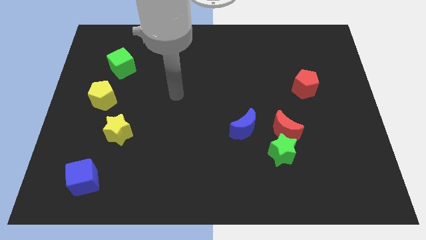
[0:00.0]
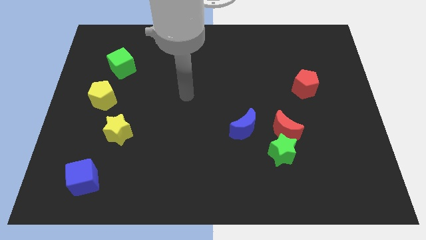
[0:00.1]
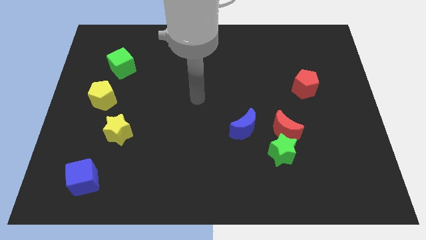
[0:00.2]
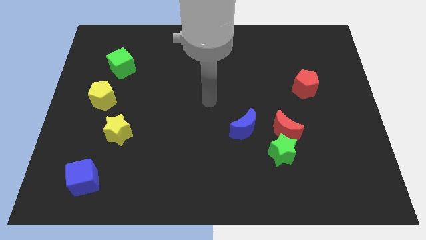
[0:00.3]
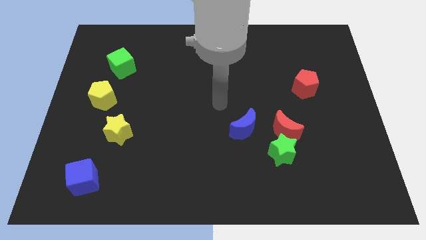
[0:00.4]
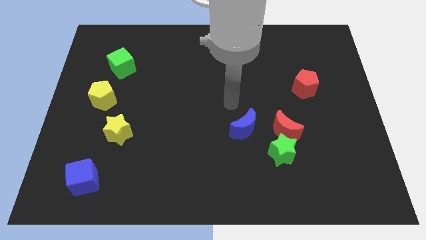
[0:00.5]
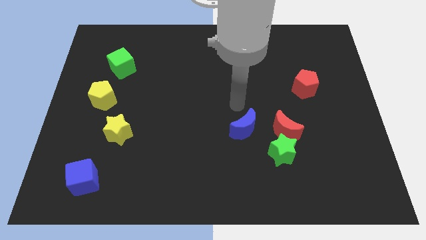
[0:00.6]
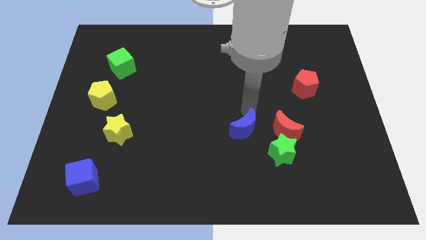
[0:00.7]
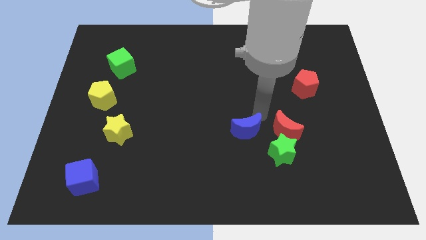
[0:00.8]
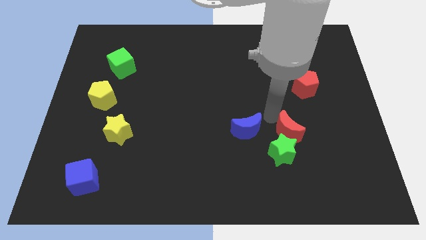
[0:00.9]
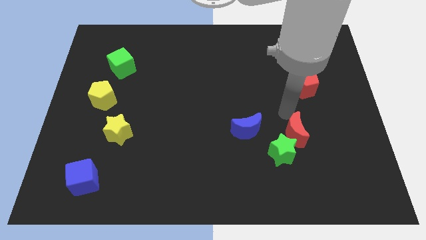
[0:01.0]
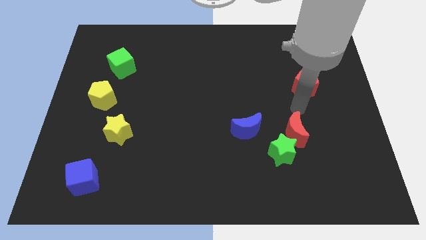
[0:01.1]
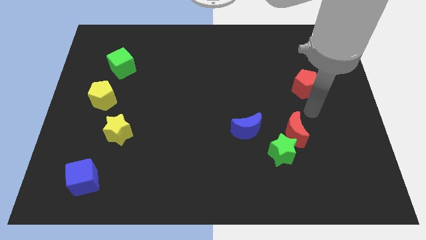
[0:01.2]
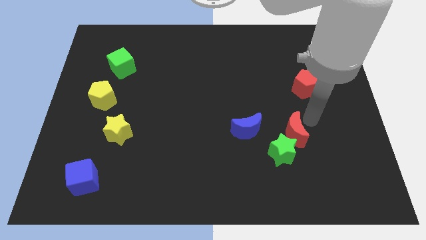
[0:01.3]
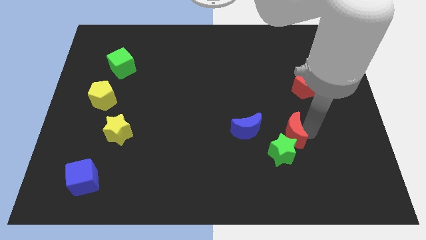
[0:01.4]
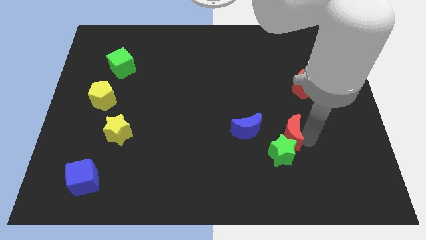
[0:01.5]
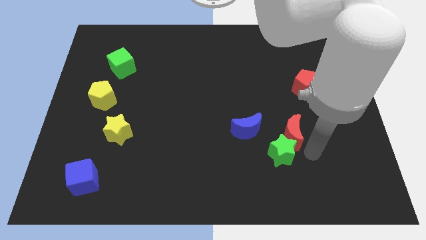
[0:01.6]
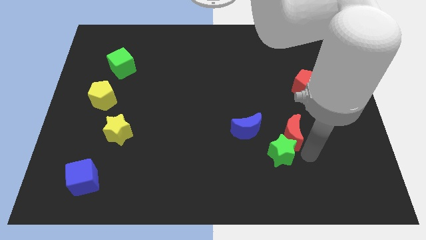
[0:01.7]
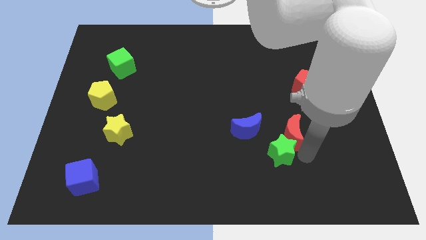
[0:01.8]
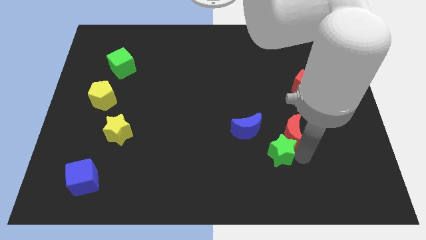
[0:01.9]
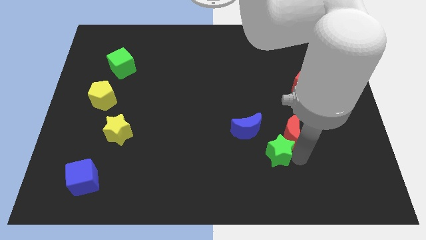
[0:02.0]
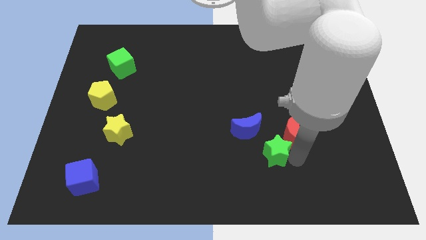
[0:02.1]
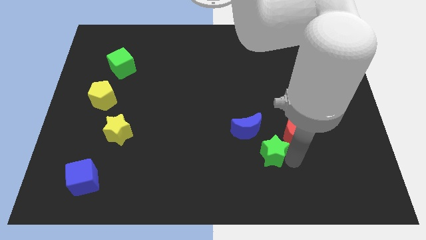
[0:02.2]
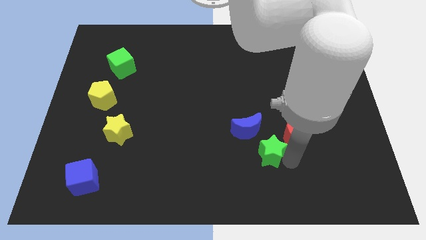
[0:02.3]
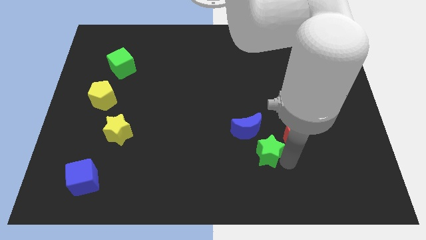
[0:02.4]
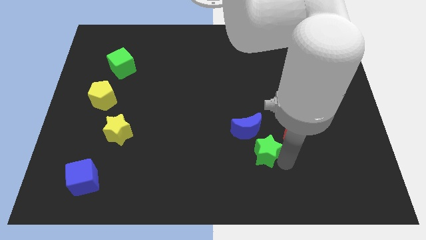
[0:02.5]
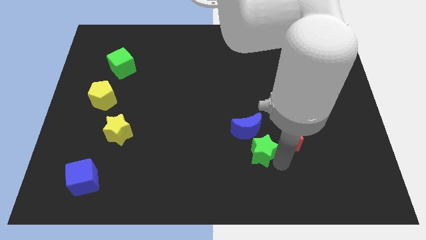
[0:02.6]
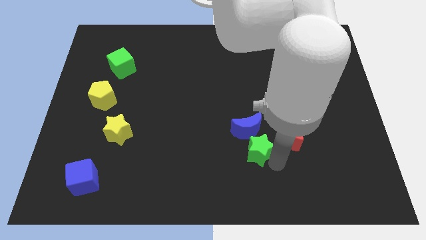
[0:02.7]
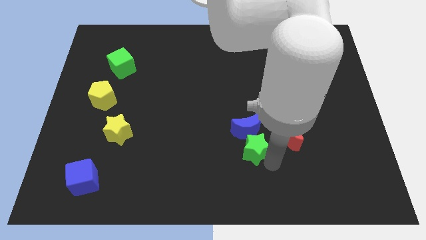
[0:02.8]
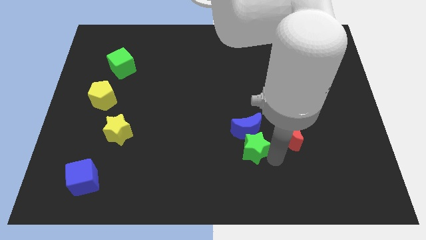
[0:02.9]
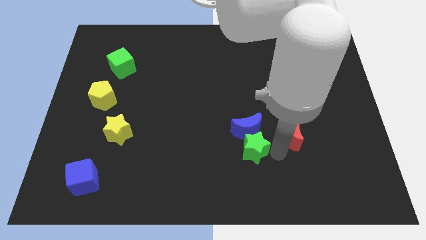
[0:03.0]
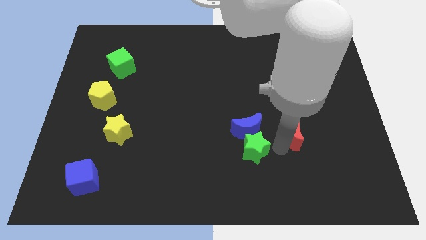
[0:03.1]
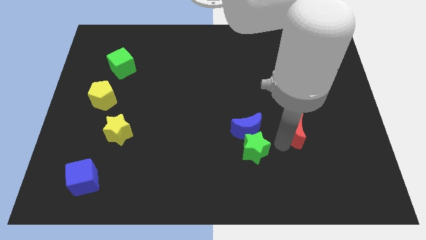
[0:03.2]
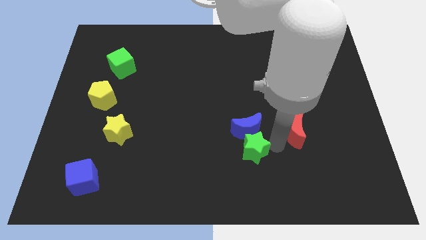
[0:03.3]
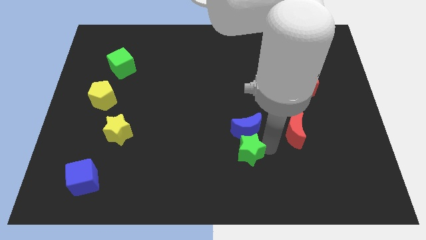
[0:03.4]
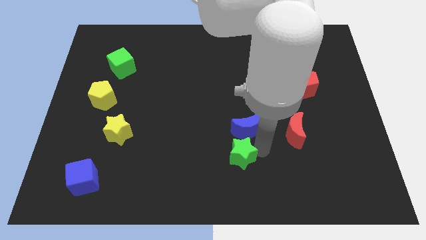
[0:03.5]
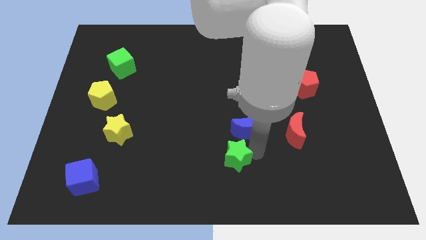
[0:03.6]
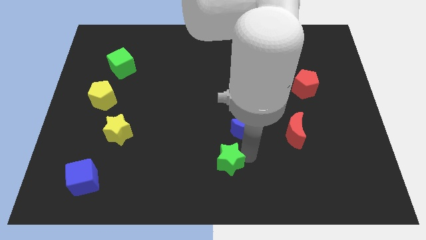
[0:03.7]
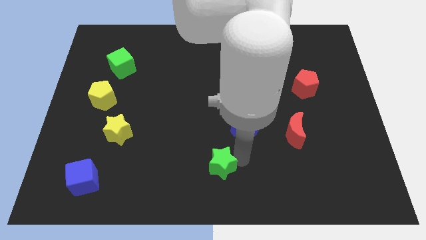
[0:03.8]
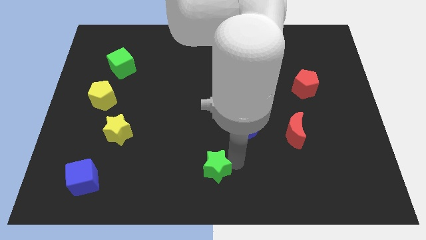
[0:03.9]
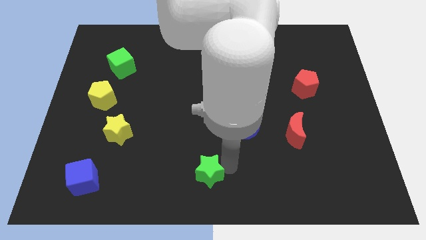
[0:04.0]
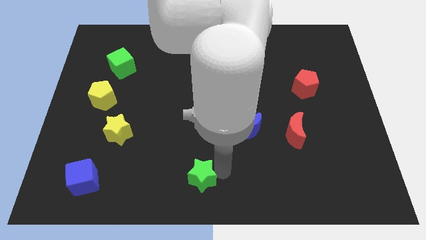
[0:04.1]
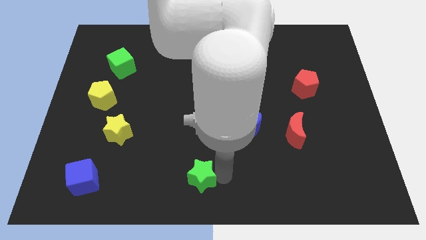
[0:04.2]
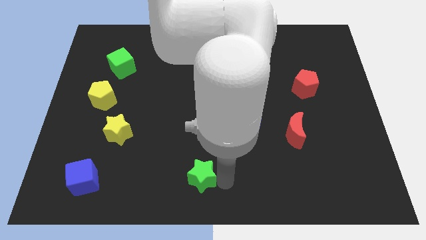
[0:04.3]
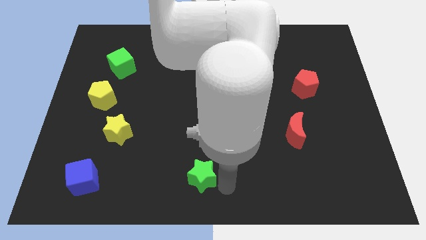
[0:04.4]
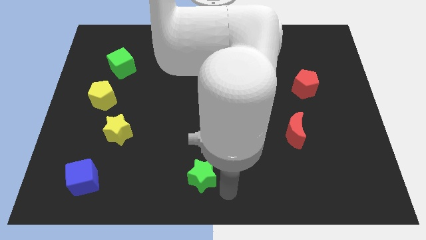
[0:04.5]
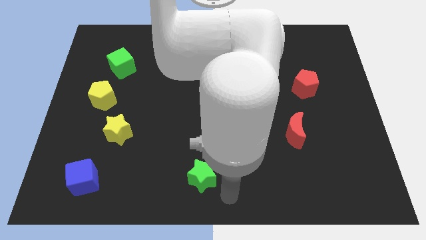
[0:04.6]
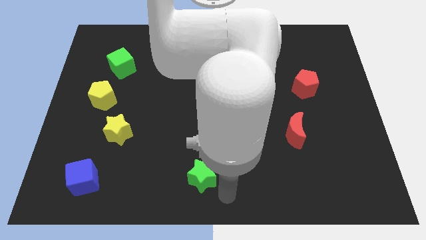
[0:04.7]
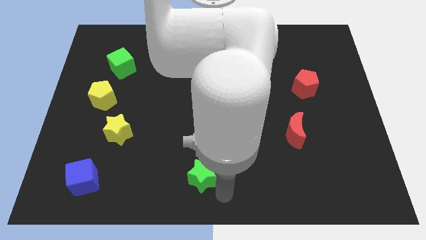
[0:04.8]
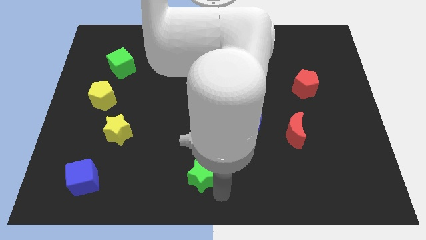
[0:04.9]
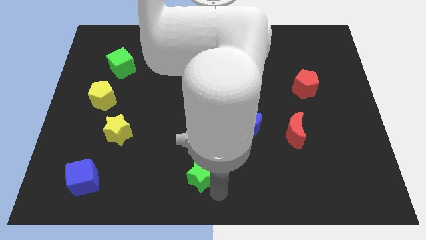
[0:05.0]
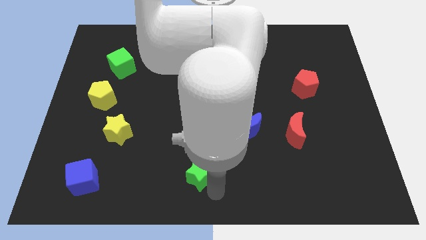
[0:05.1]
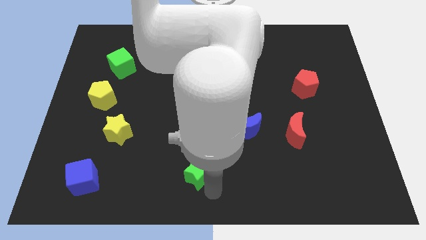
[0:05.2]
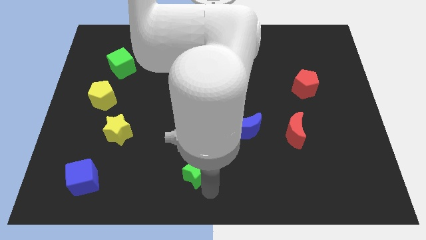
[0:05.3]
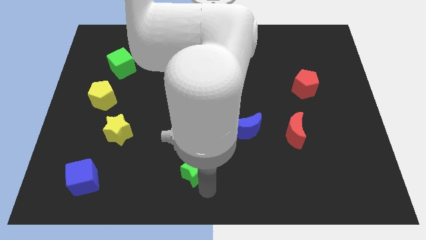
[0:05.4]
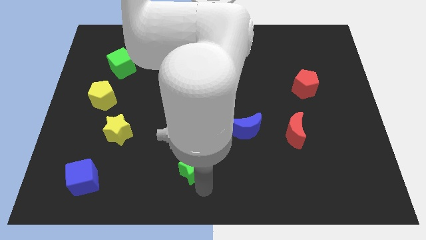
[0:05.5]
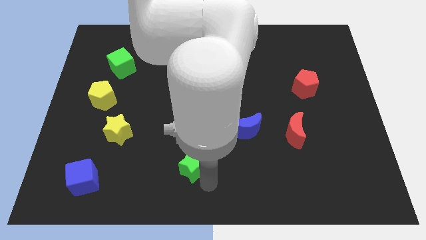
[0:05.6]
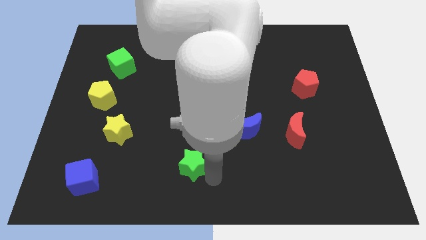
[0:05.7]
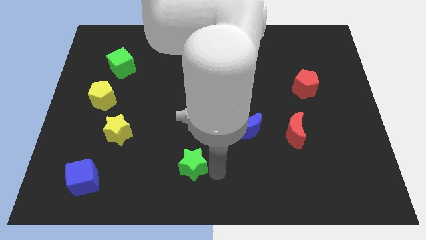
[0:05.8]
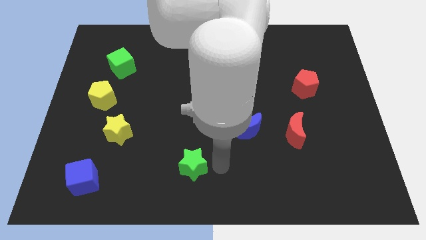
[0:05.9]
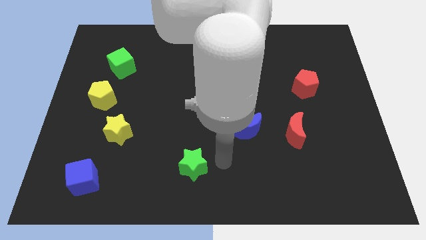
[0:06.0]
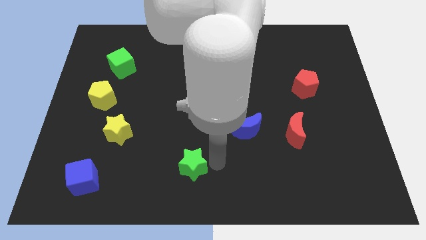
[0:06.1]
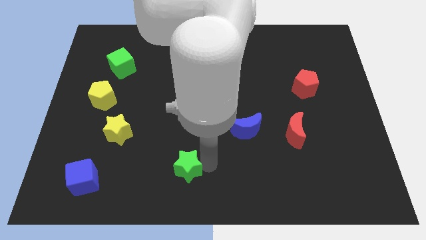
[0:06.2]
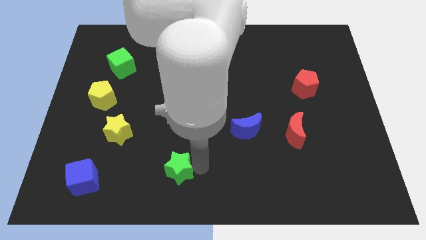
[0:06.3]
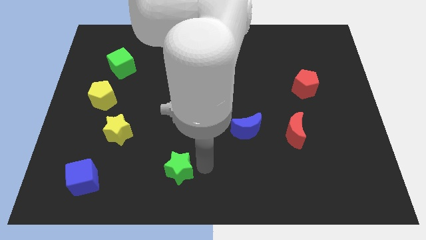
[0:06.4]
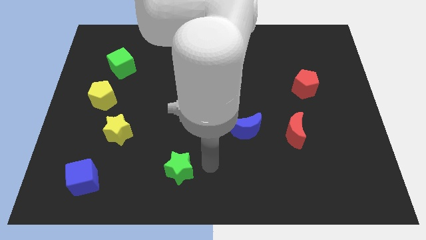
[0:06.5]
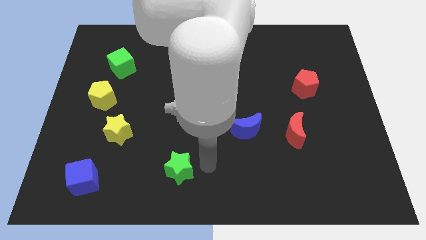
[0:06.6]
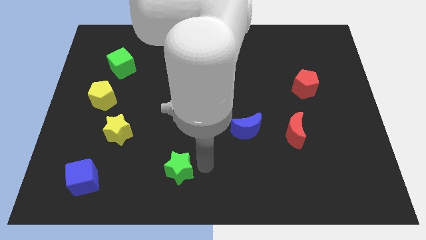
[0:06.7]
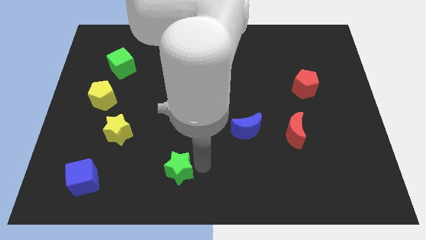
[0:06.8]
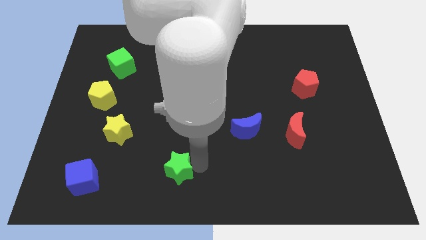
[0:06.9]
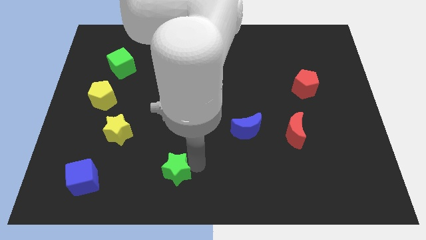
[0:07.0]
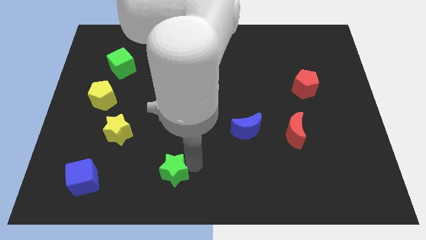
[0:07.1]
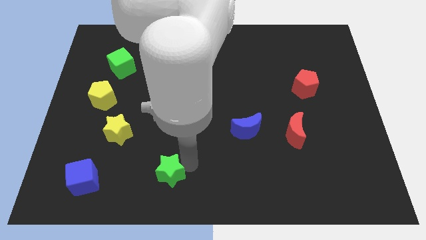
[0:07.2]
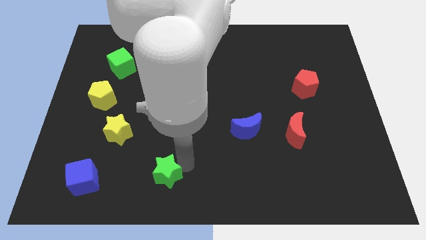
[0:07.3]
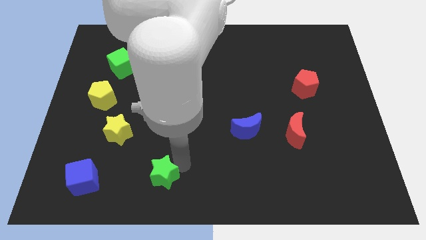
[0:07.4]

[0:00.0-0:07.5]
move the green star just right of the blue cube
